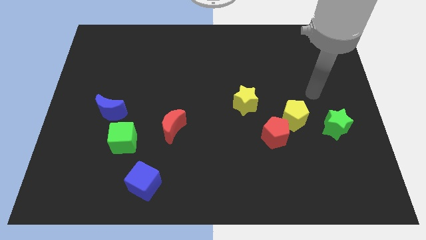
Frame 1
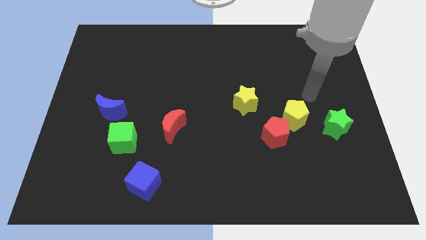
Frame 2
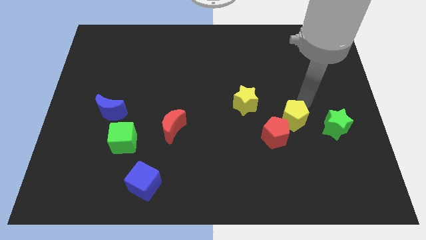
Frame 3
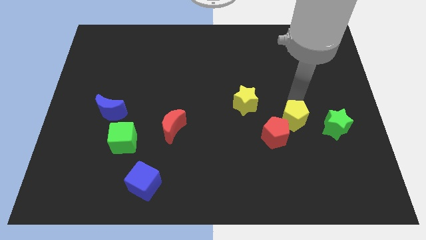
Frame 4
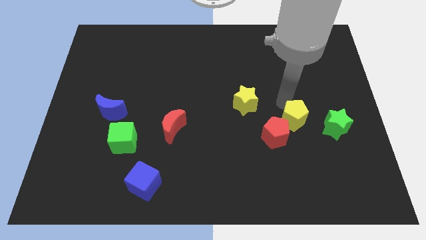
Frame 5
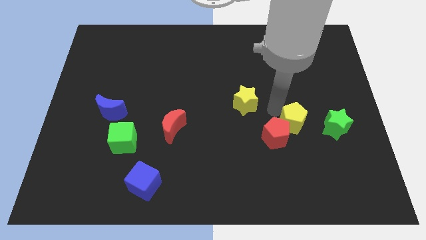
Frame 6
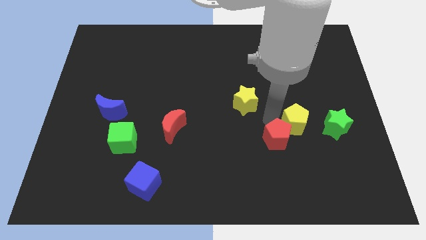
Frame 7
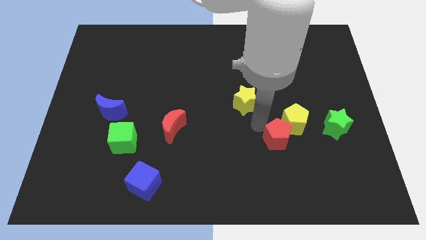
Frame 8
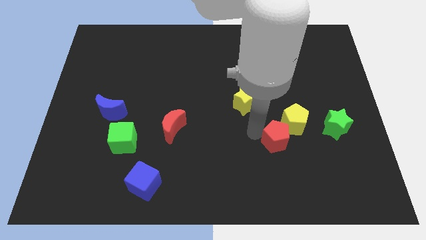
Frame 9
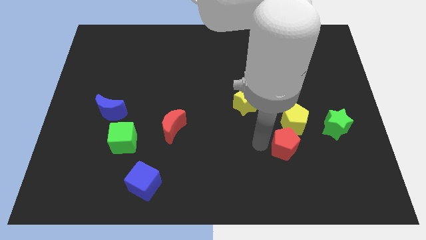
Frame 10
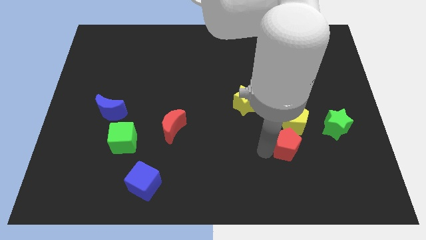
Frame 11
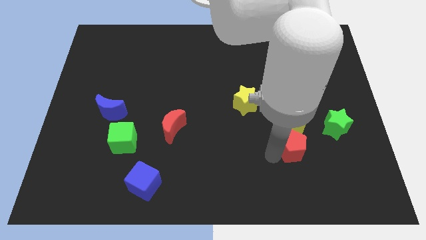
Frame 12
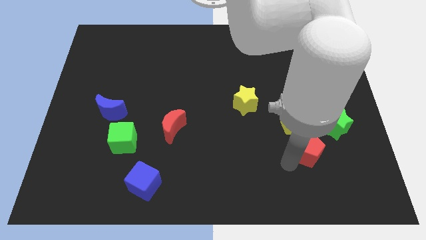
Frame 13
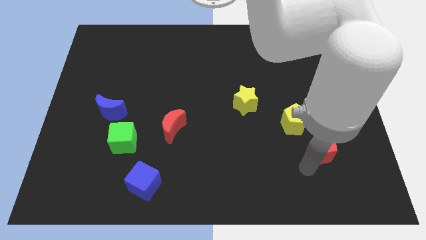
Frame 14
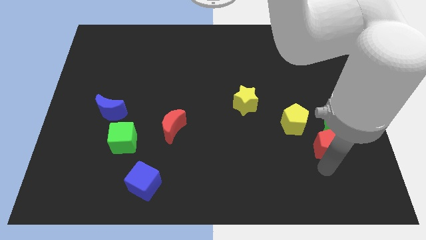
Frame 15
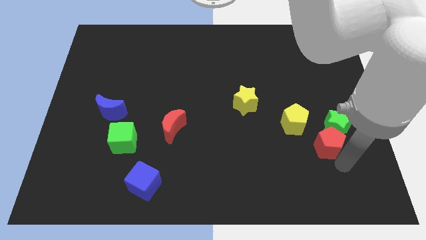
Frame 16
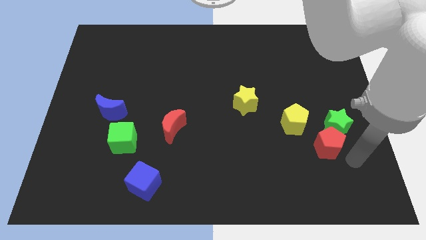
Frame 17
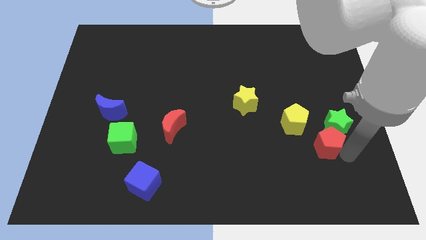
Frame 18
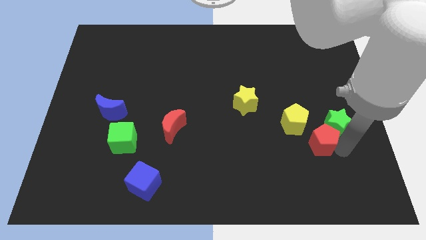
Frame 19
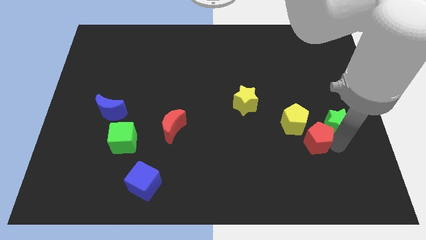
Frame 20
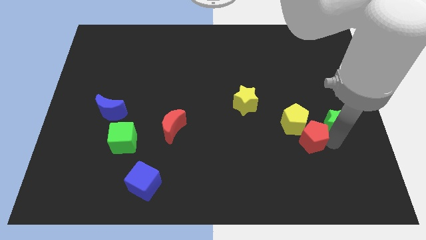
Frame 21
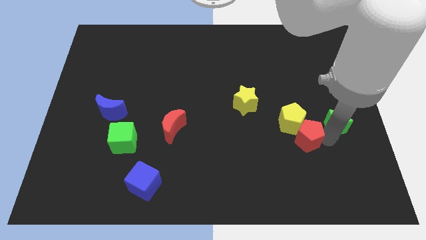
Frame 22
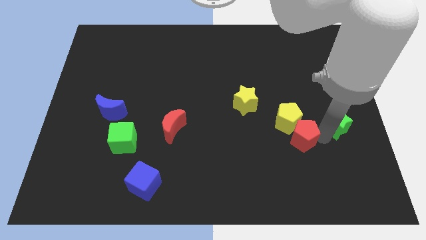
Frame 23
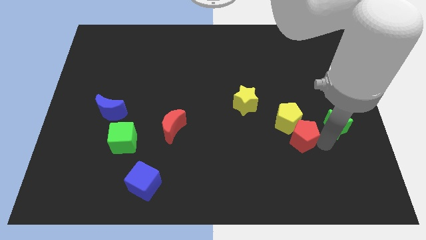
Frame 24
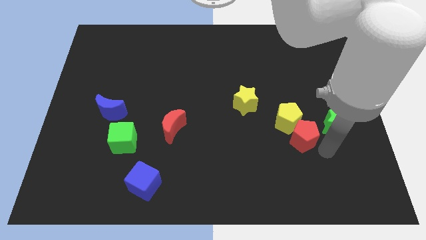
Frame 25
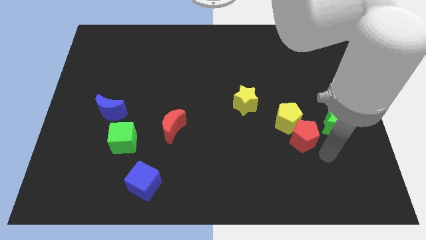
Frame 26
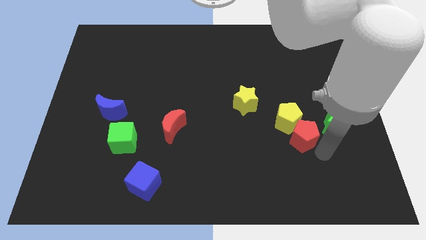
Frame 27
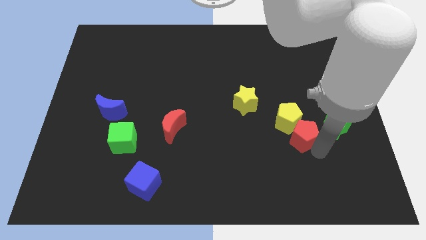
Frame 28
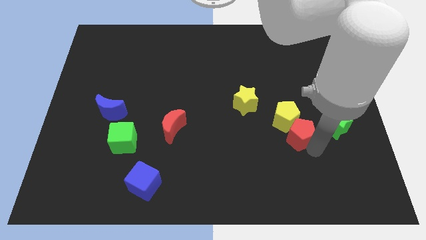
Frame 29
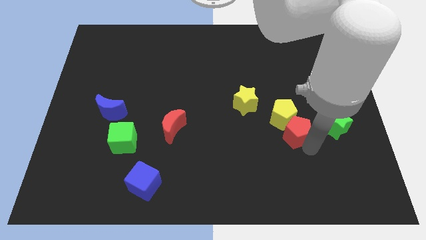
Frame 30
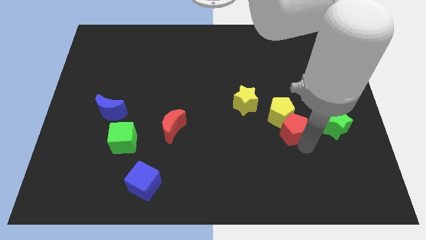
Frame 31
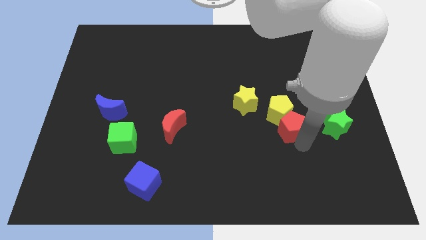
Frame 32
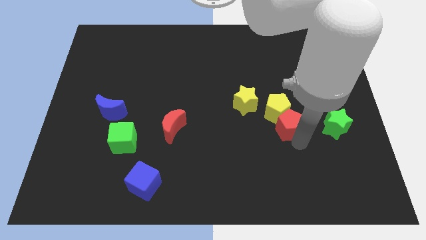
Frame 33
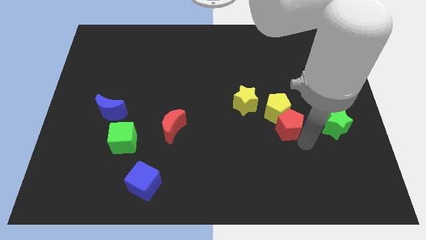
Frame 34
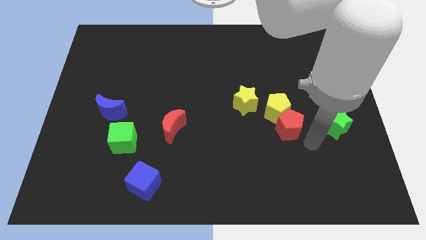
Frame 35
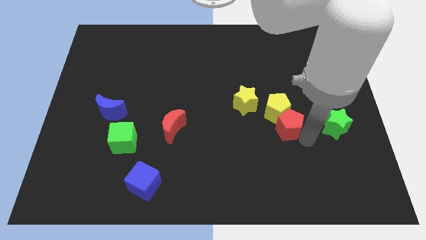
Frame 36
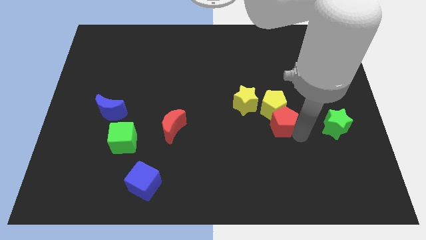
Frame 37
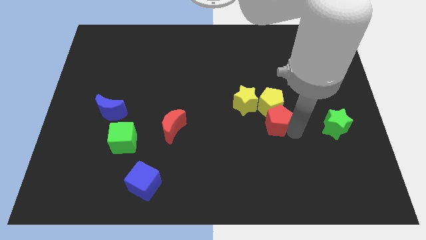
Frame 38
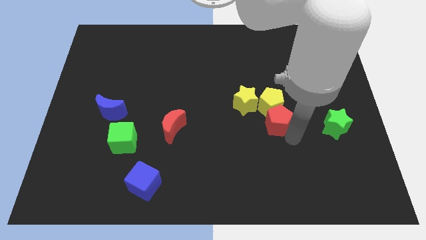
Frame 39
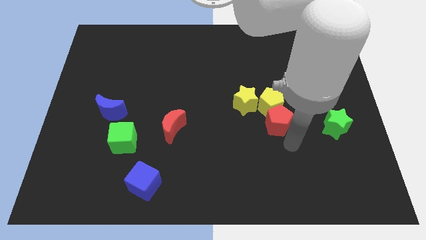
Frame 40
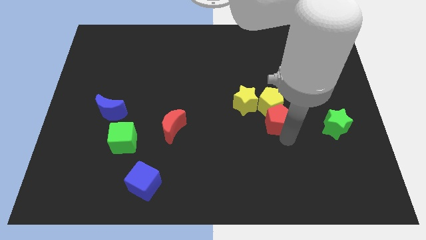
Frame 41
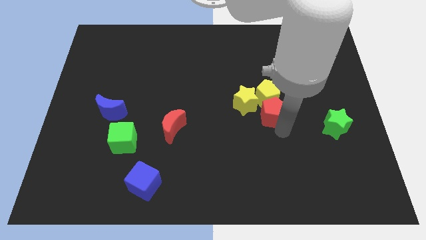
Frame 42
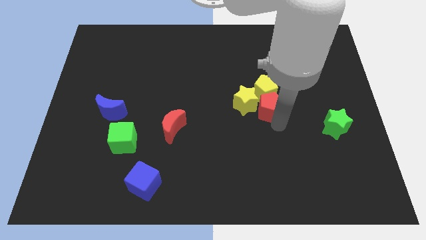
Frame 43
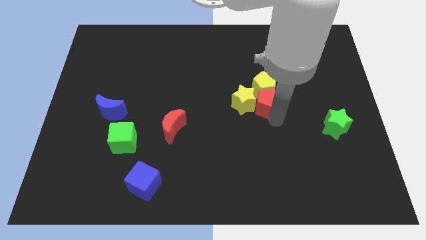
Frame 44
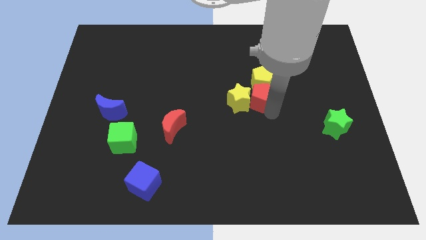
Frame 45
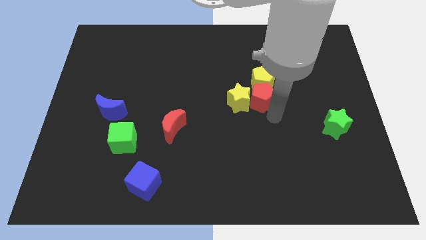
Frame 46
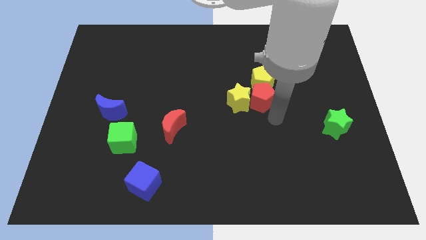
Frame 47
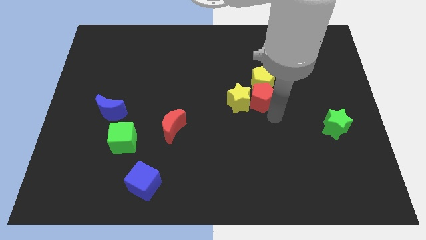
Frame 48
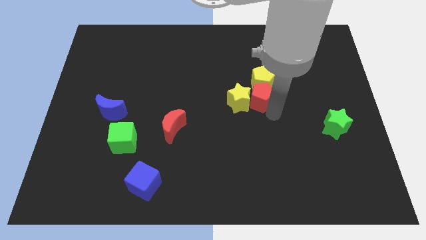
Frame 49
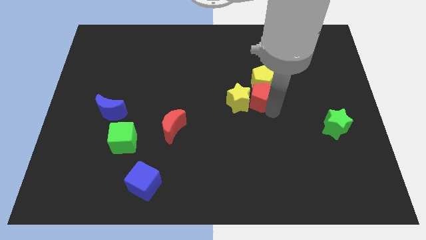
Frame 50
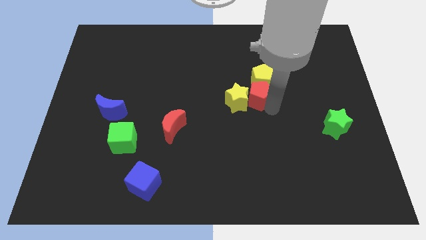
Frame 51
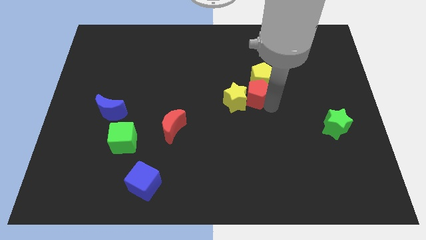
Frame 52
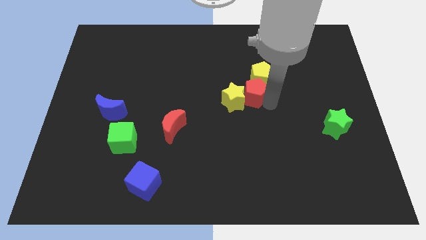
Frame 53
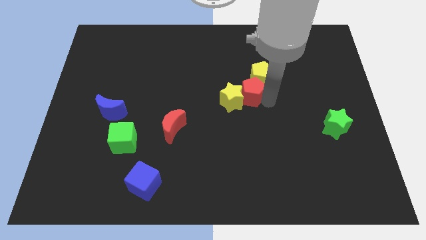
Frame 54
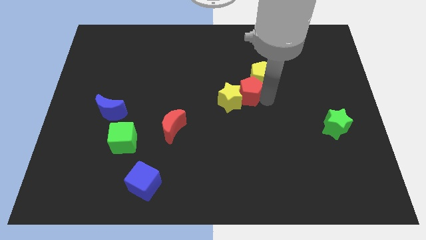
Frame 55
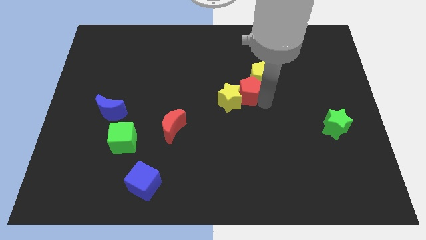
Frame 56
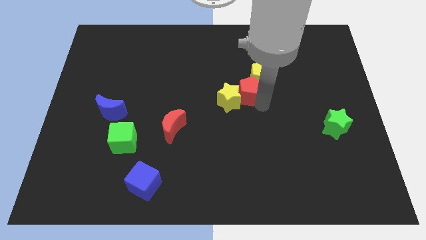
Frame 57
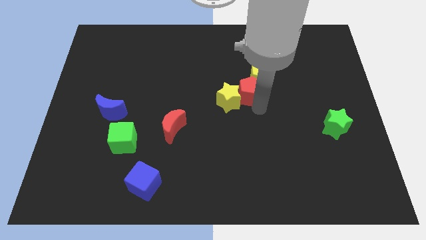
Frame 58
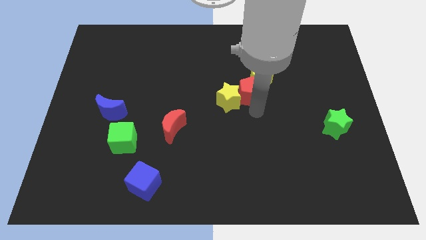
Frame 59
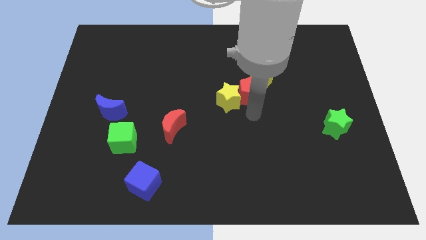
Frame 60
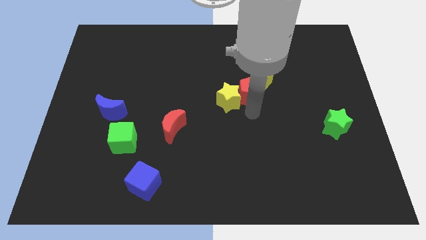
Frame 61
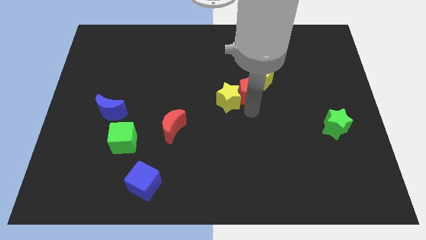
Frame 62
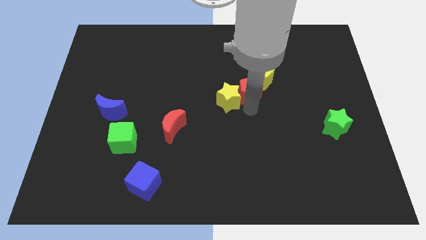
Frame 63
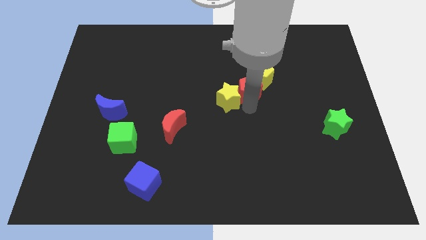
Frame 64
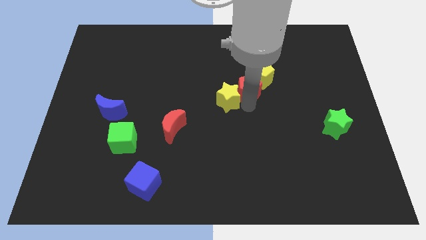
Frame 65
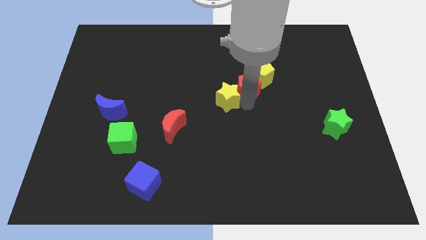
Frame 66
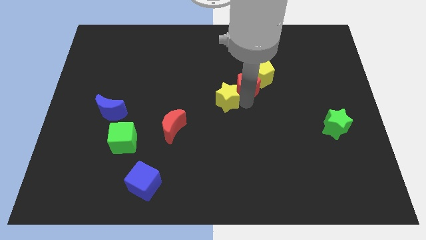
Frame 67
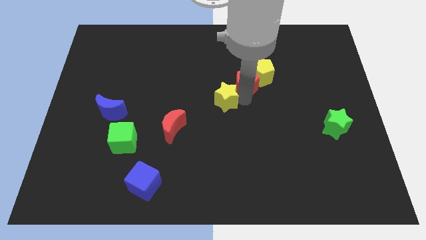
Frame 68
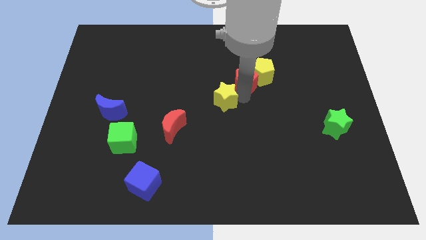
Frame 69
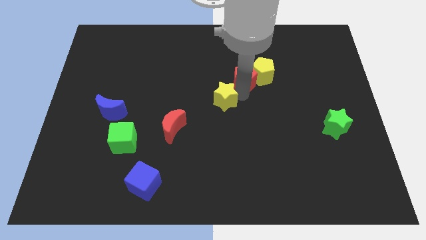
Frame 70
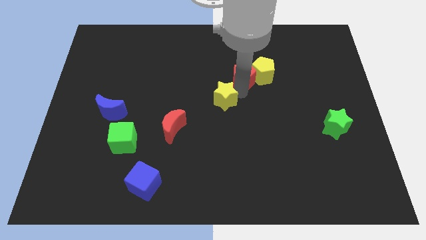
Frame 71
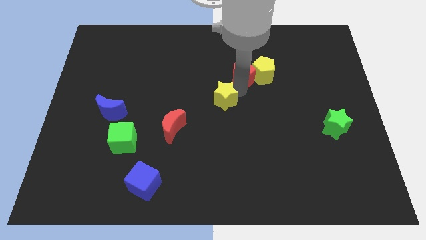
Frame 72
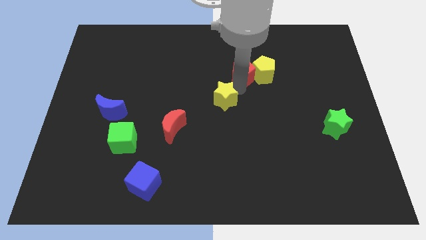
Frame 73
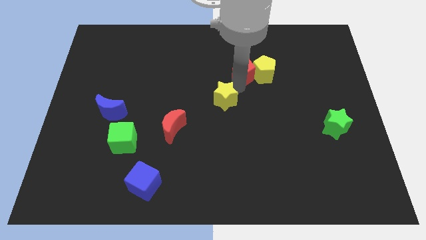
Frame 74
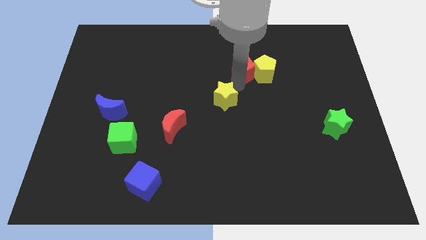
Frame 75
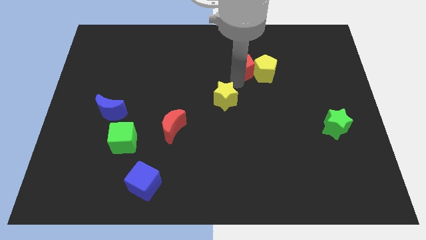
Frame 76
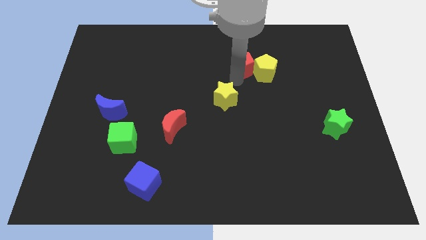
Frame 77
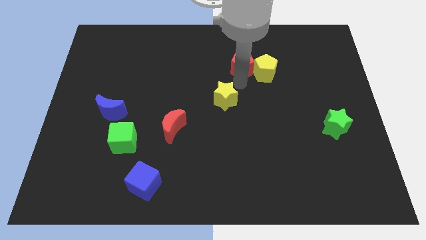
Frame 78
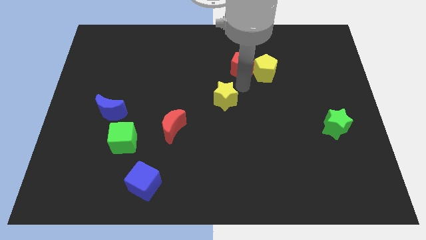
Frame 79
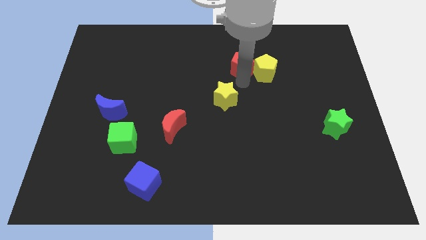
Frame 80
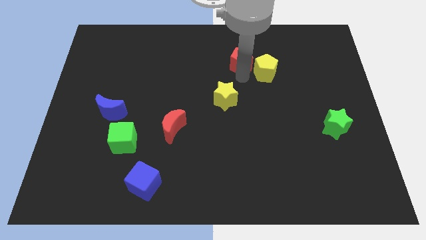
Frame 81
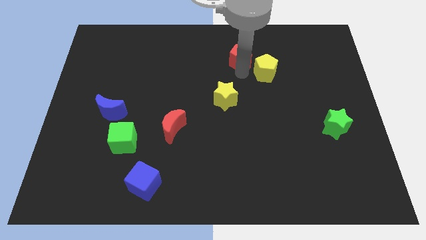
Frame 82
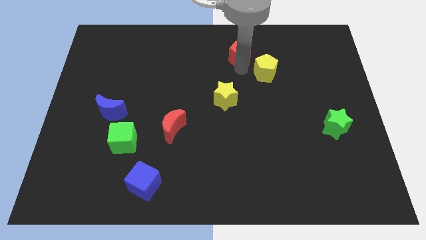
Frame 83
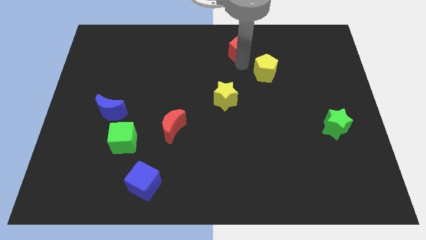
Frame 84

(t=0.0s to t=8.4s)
push the red pentagon to the top
